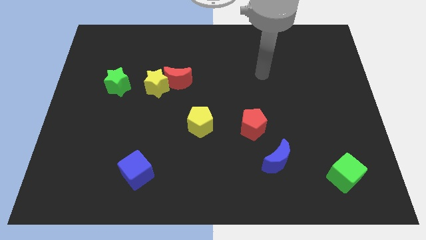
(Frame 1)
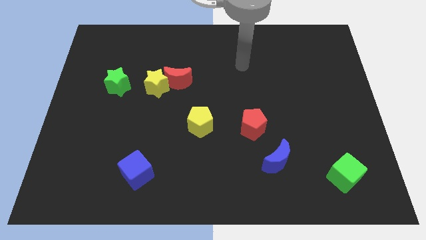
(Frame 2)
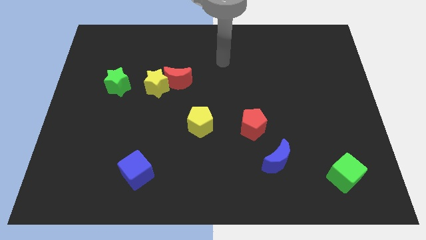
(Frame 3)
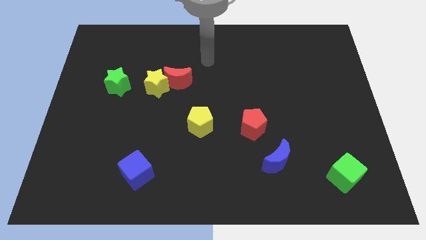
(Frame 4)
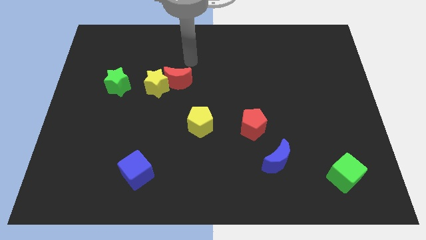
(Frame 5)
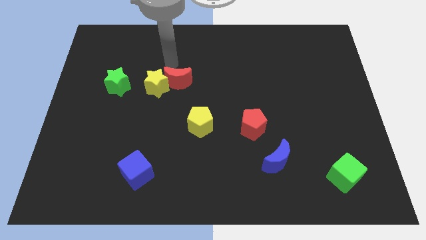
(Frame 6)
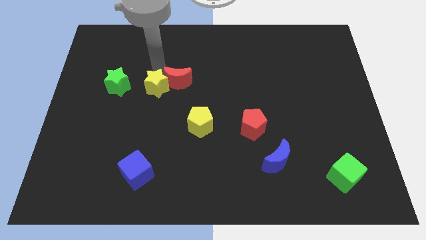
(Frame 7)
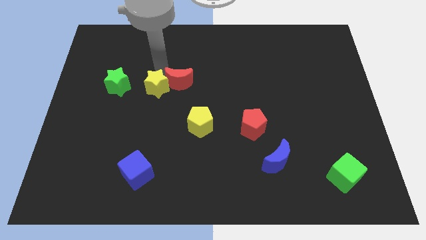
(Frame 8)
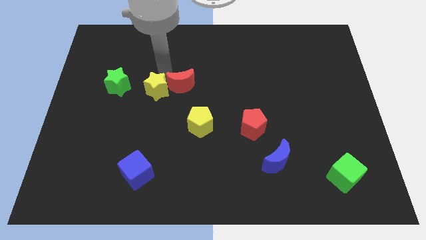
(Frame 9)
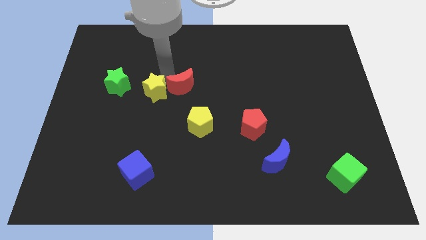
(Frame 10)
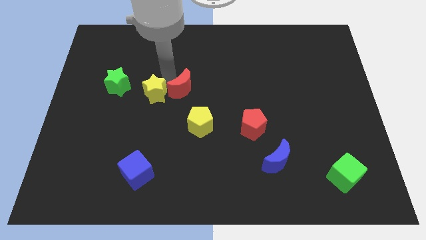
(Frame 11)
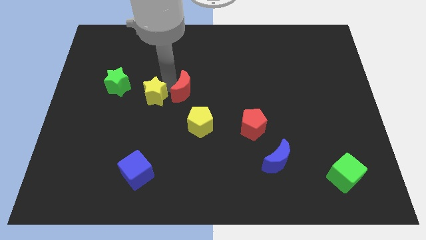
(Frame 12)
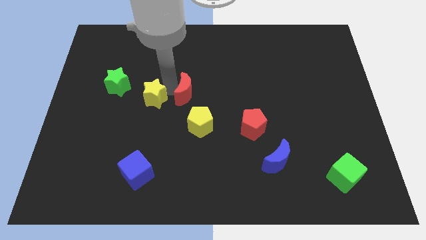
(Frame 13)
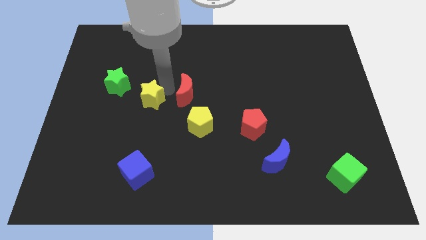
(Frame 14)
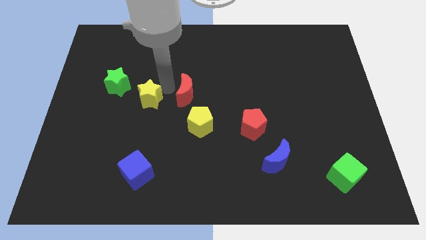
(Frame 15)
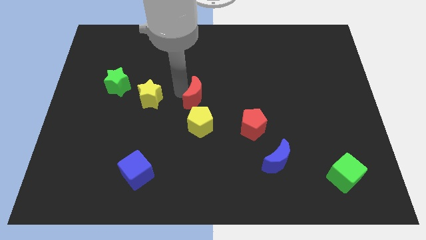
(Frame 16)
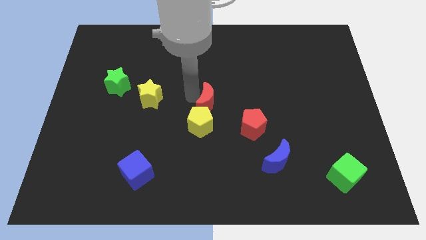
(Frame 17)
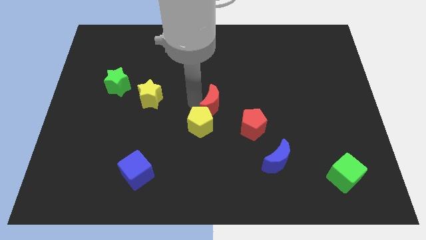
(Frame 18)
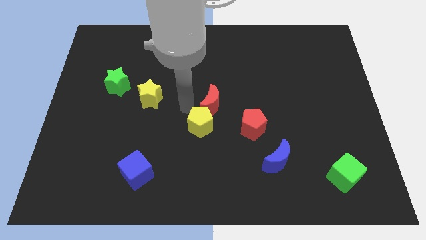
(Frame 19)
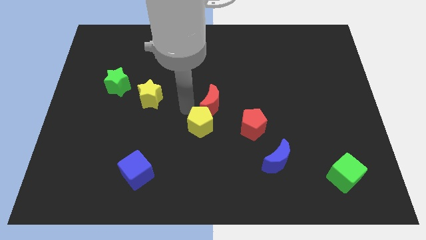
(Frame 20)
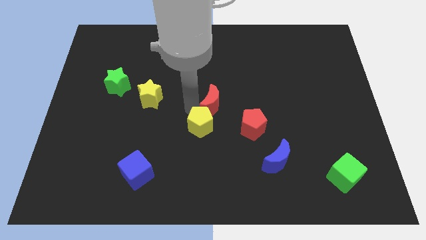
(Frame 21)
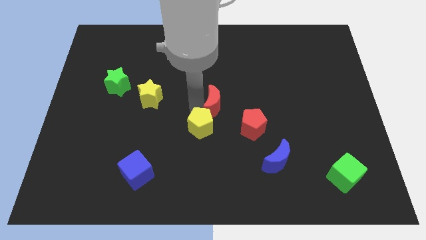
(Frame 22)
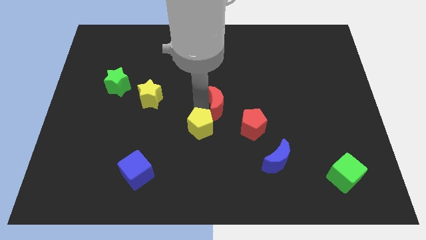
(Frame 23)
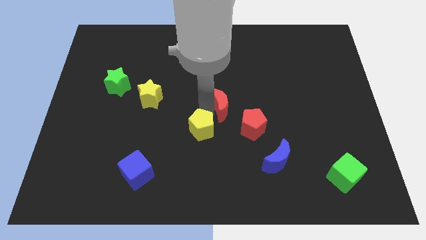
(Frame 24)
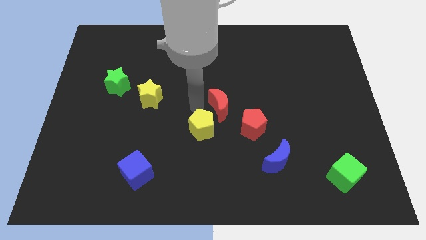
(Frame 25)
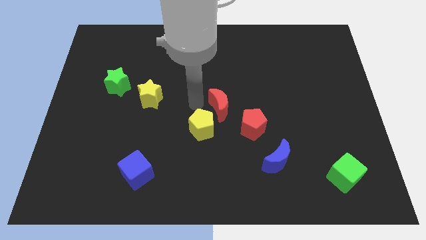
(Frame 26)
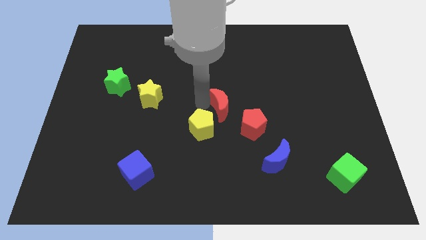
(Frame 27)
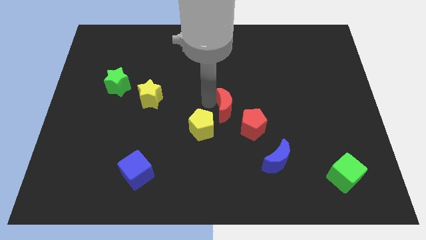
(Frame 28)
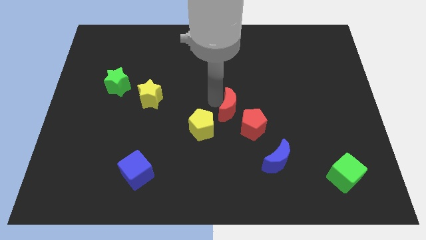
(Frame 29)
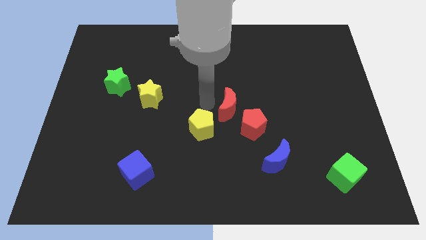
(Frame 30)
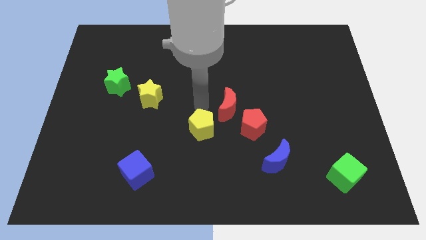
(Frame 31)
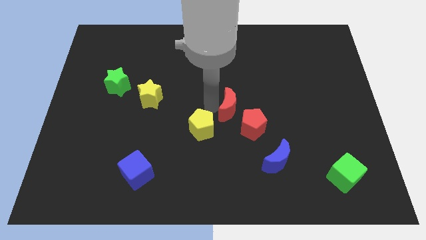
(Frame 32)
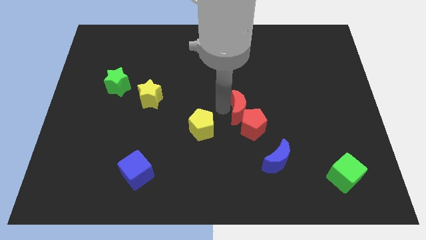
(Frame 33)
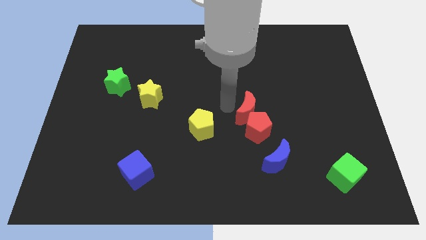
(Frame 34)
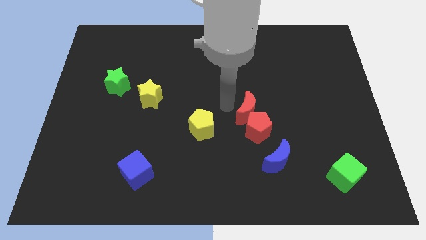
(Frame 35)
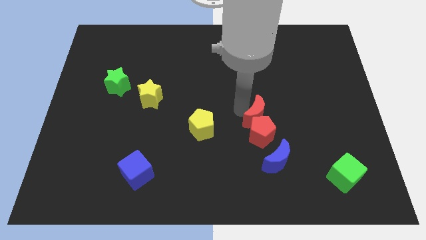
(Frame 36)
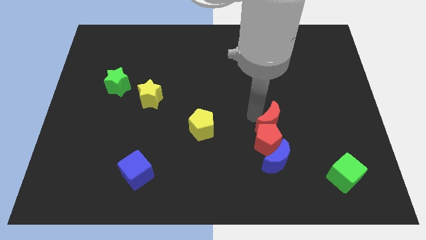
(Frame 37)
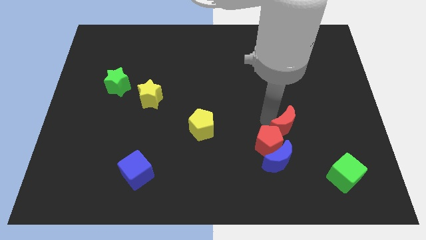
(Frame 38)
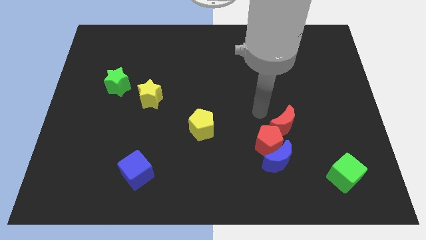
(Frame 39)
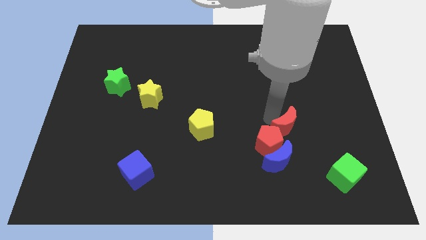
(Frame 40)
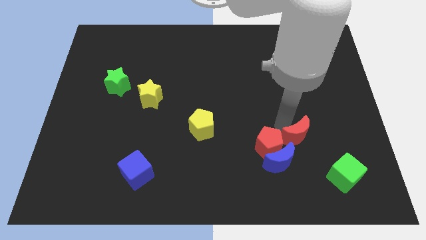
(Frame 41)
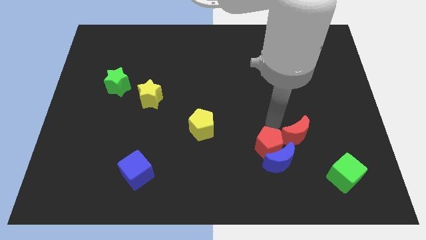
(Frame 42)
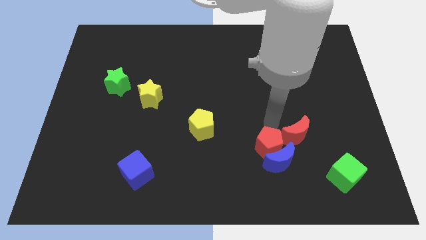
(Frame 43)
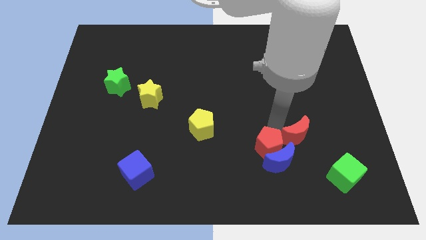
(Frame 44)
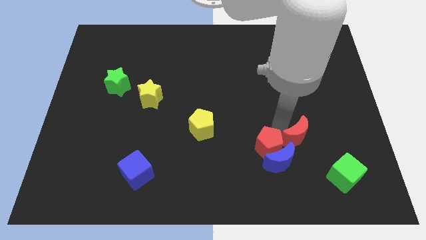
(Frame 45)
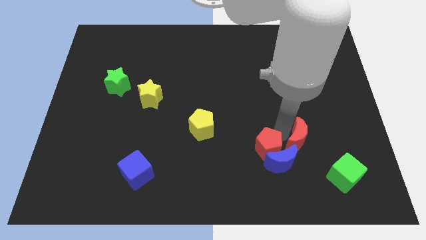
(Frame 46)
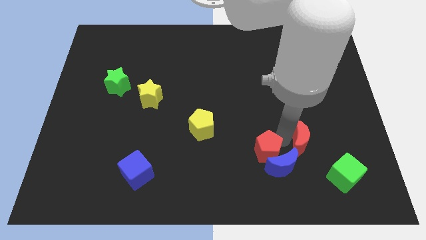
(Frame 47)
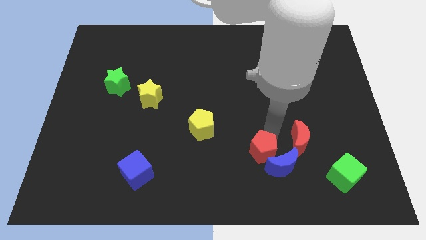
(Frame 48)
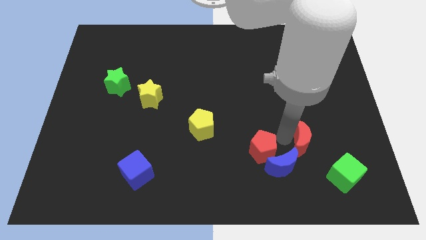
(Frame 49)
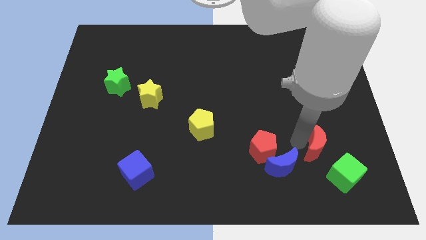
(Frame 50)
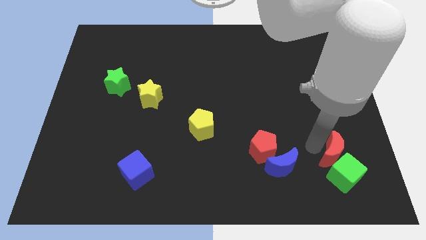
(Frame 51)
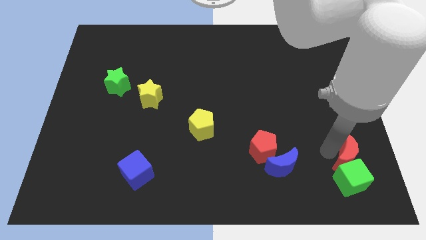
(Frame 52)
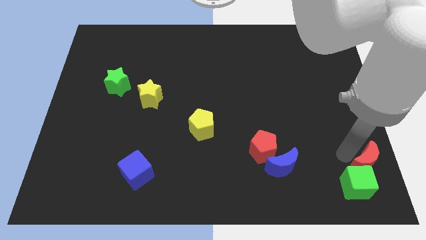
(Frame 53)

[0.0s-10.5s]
move the red moon to the bottom right corner

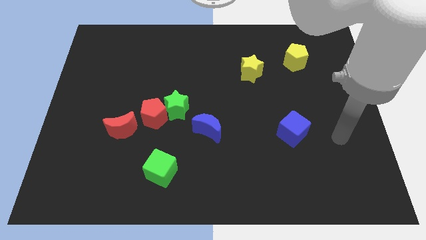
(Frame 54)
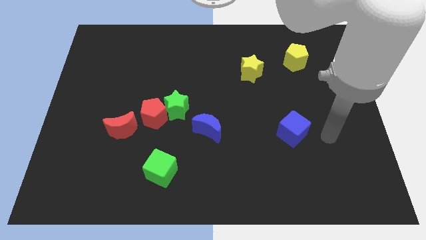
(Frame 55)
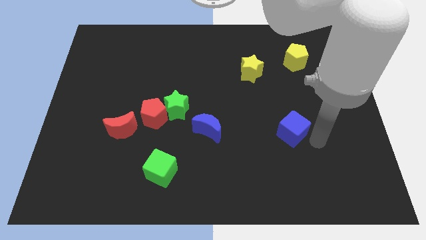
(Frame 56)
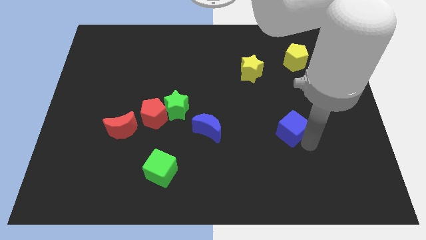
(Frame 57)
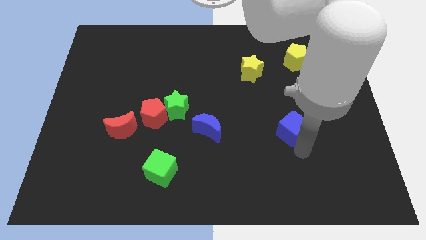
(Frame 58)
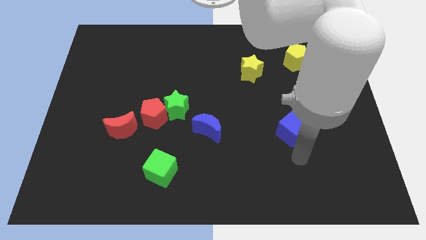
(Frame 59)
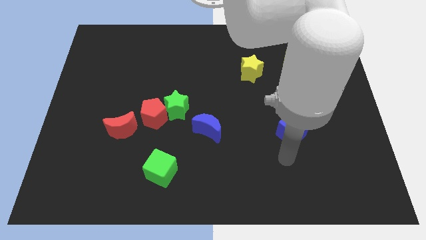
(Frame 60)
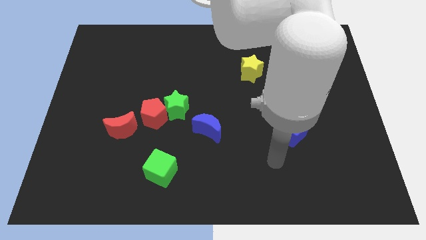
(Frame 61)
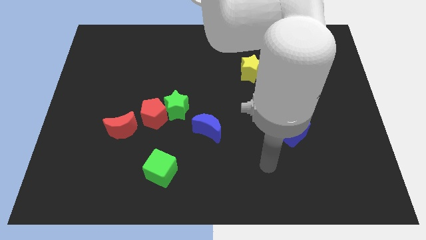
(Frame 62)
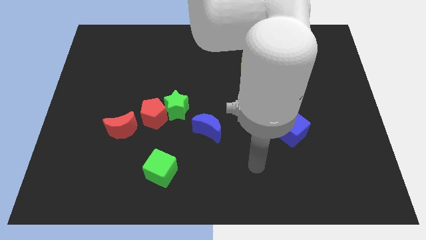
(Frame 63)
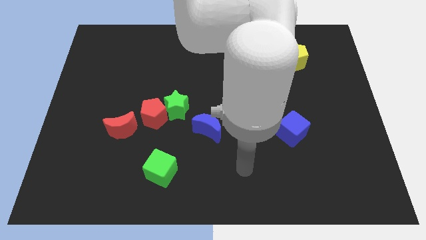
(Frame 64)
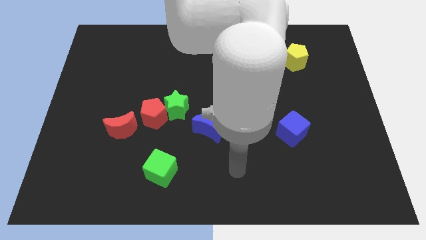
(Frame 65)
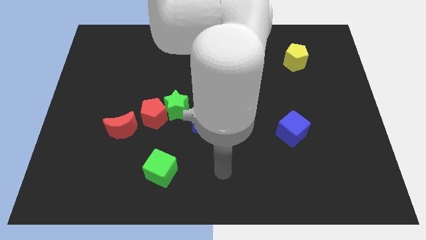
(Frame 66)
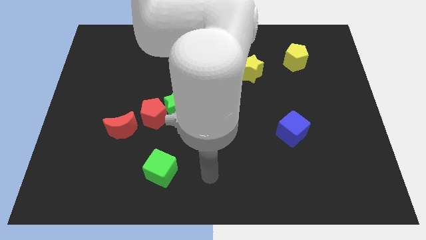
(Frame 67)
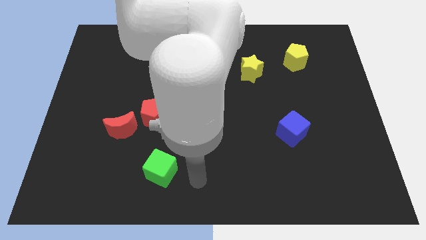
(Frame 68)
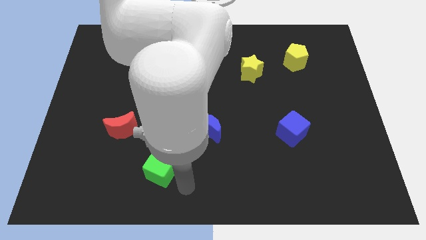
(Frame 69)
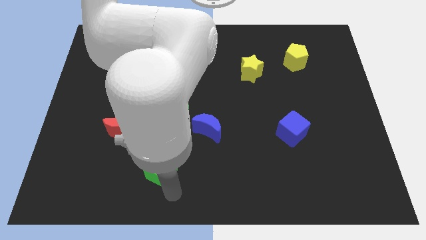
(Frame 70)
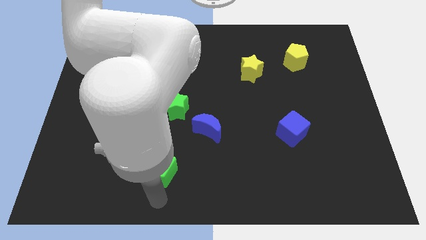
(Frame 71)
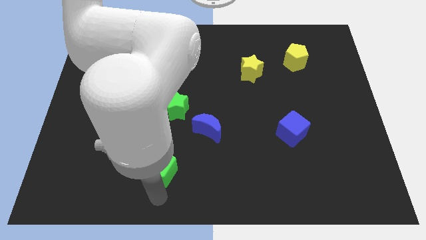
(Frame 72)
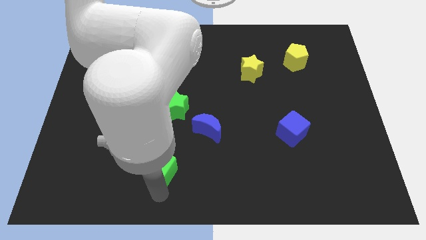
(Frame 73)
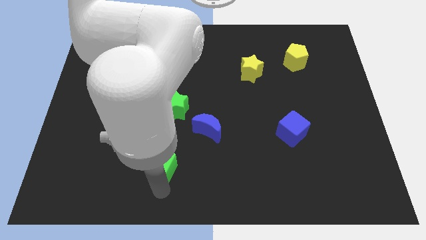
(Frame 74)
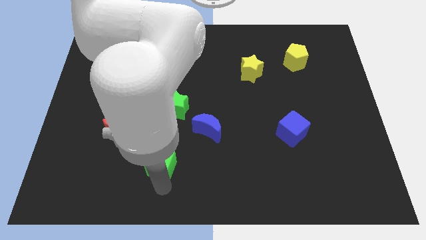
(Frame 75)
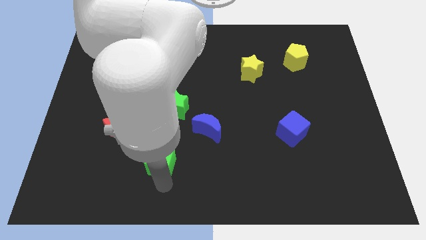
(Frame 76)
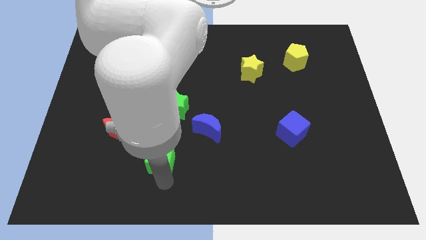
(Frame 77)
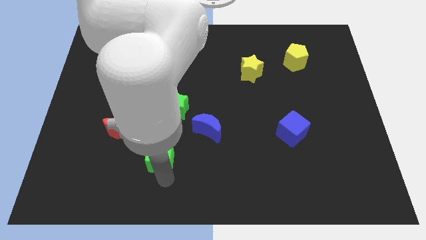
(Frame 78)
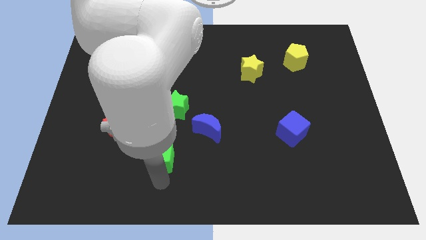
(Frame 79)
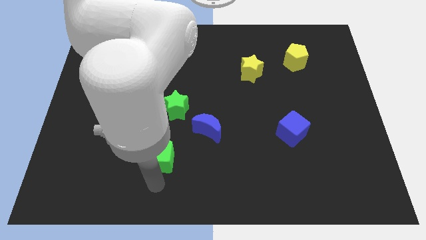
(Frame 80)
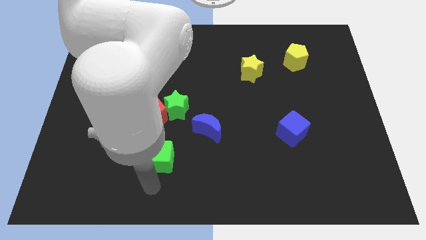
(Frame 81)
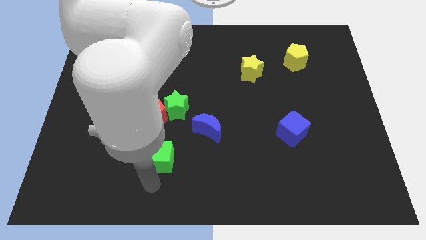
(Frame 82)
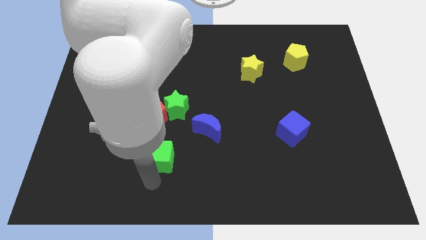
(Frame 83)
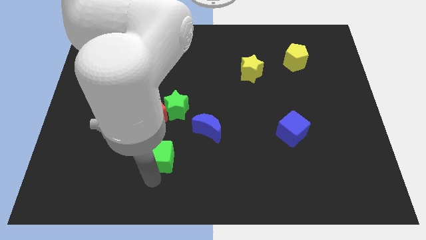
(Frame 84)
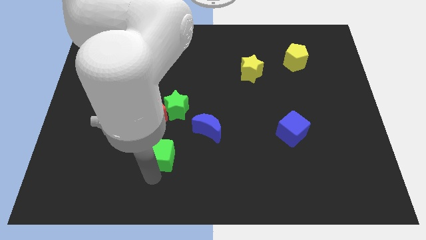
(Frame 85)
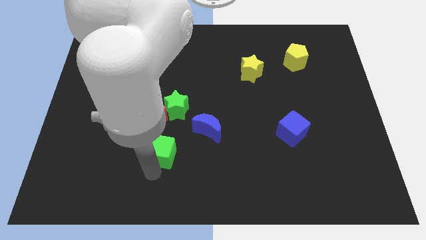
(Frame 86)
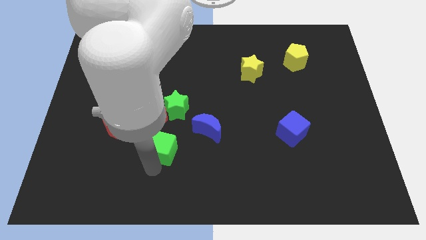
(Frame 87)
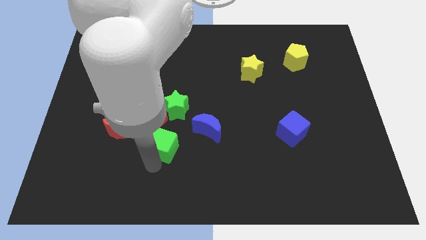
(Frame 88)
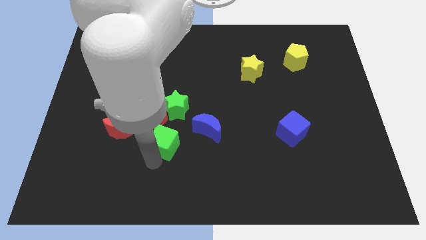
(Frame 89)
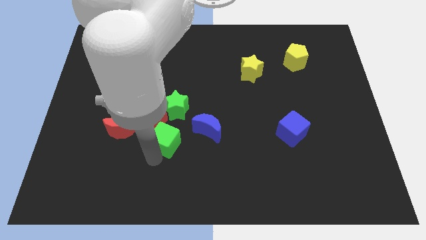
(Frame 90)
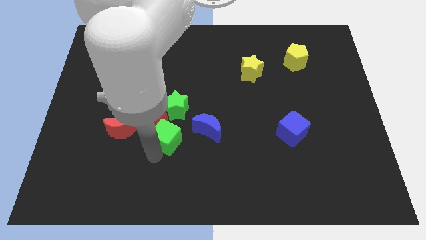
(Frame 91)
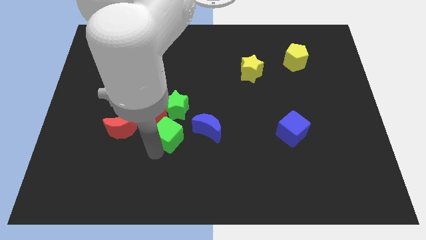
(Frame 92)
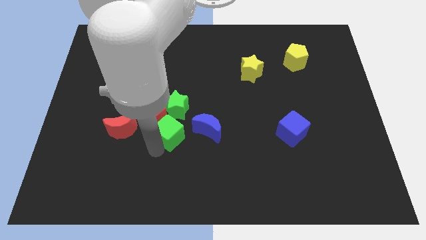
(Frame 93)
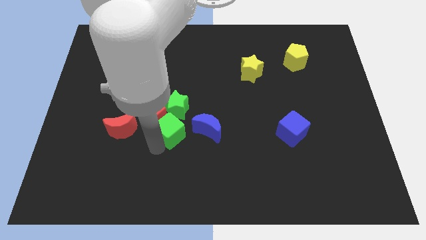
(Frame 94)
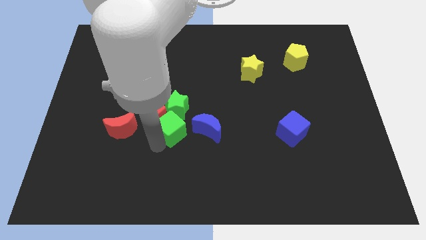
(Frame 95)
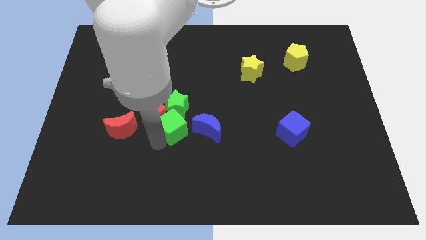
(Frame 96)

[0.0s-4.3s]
push the green cube to the center of the board
